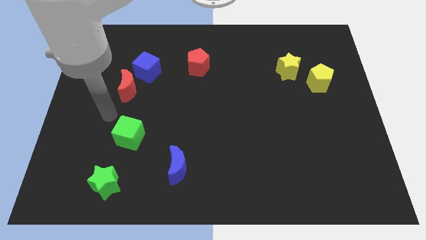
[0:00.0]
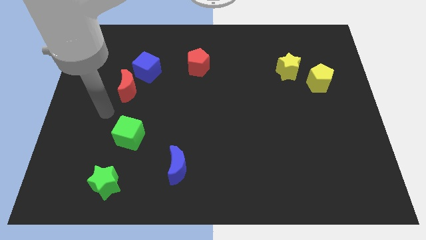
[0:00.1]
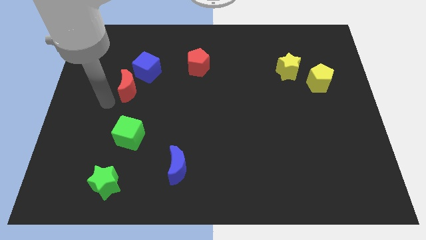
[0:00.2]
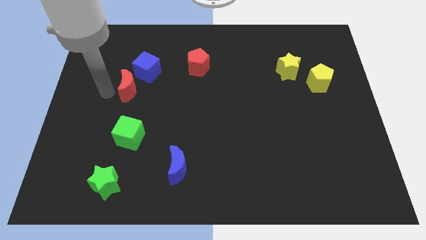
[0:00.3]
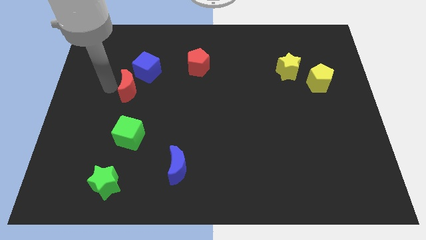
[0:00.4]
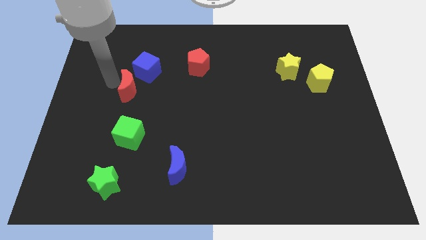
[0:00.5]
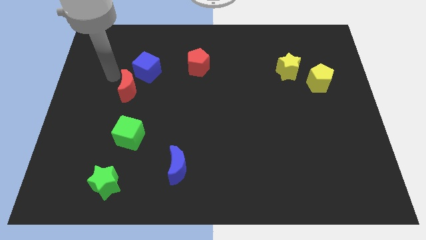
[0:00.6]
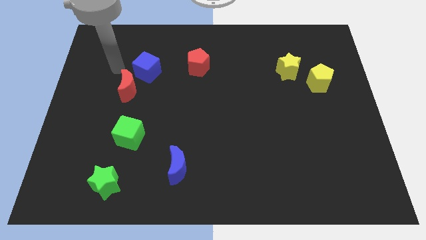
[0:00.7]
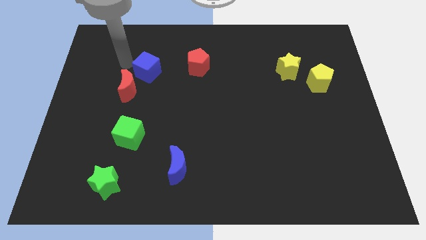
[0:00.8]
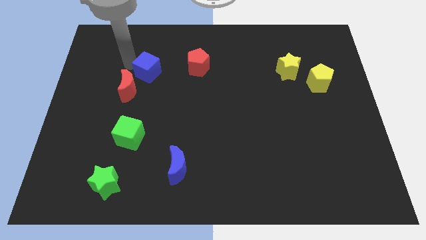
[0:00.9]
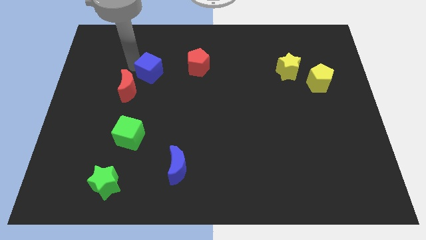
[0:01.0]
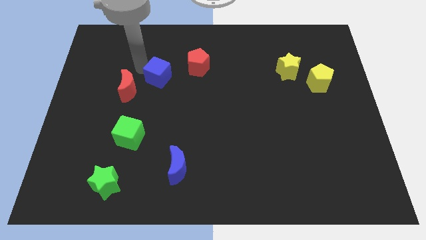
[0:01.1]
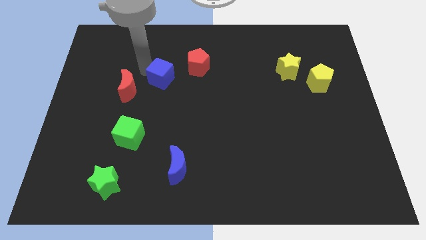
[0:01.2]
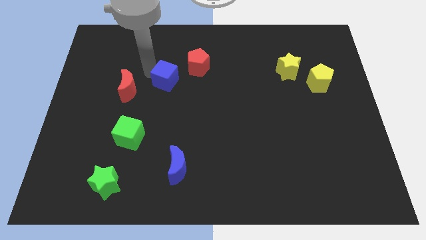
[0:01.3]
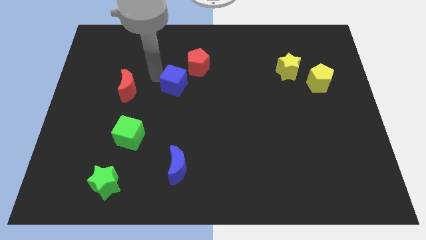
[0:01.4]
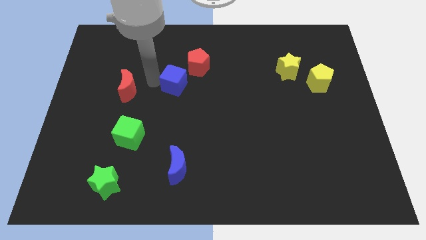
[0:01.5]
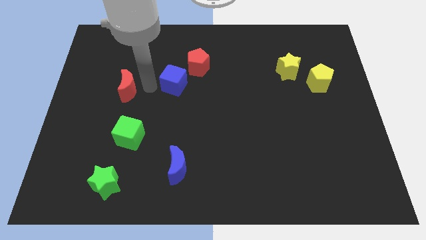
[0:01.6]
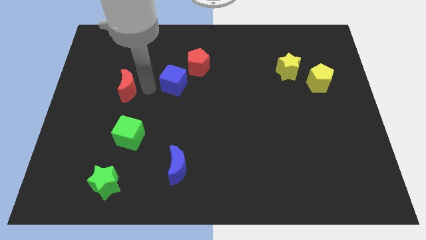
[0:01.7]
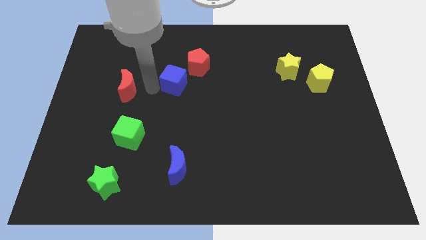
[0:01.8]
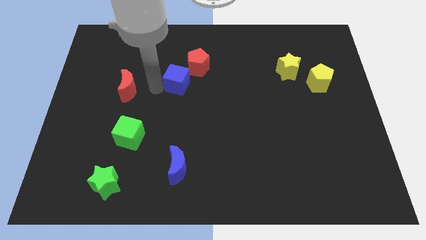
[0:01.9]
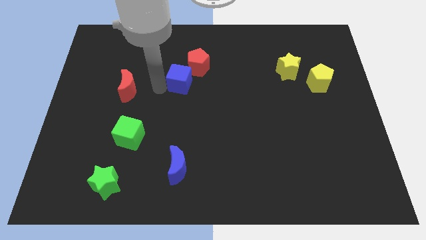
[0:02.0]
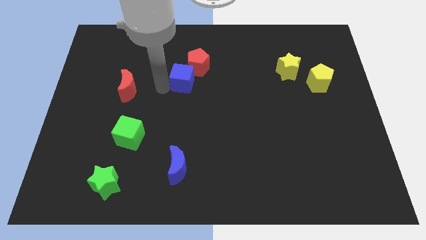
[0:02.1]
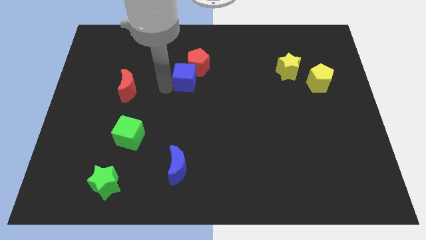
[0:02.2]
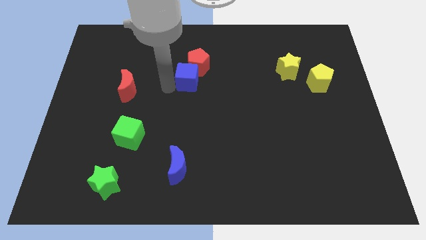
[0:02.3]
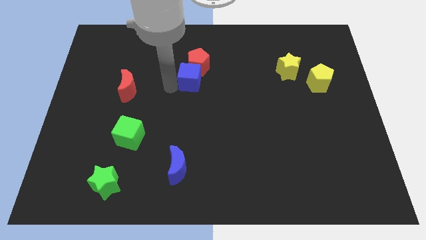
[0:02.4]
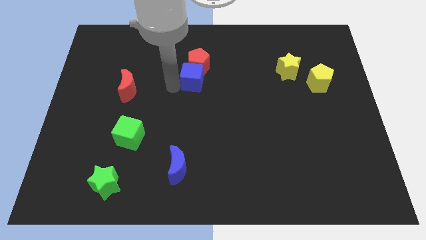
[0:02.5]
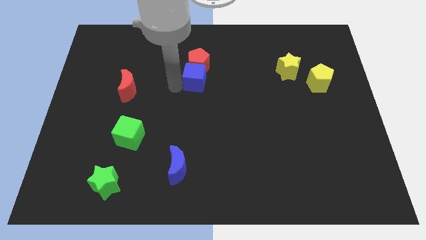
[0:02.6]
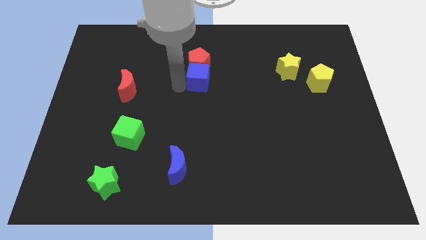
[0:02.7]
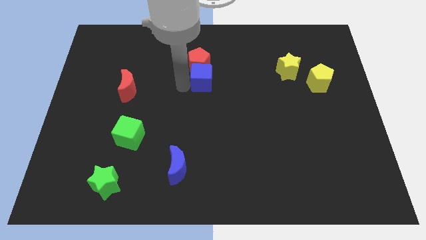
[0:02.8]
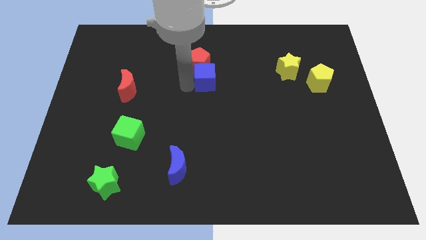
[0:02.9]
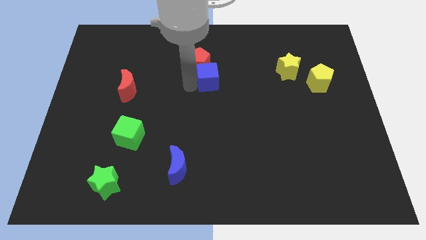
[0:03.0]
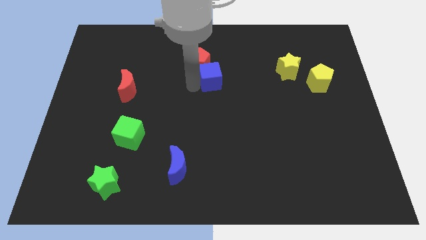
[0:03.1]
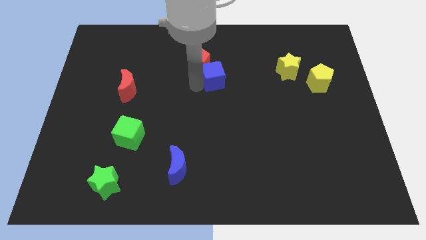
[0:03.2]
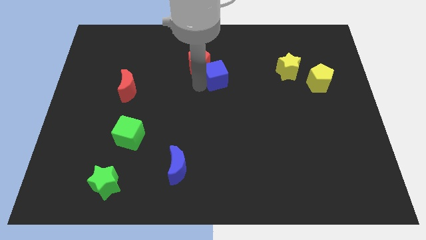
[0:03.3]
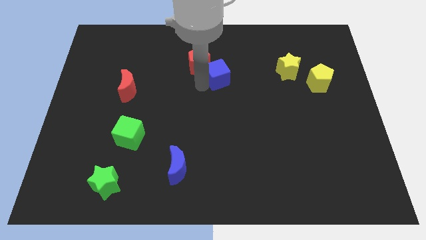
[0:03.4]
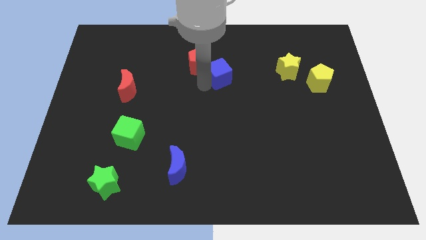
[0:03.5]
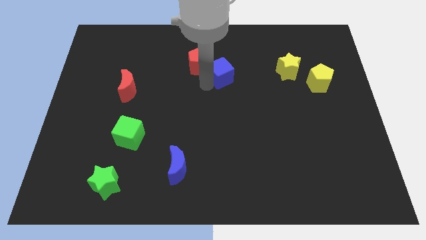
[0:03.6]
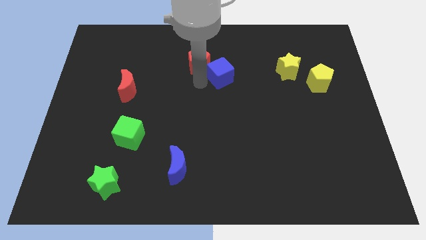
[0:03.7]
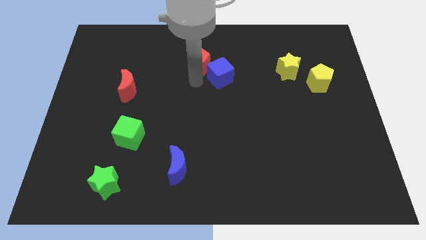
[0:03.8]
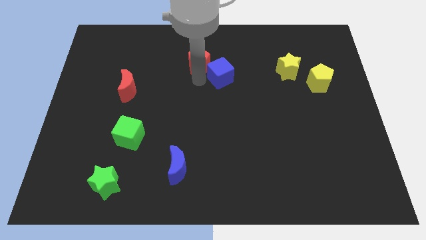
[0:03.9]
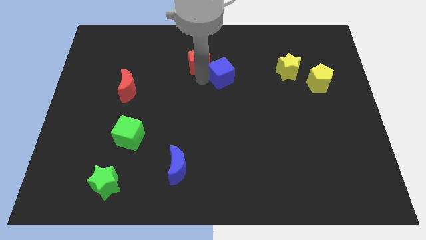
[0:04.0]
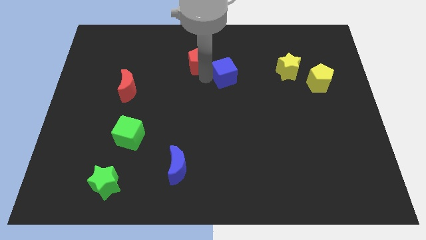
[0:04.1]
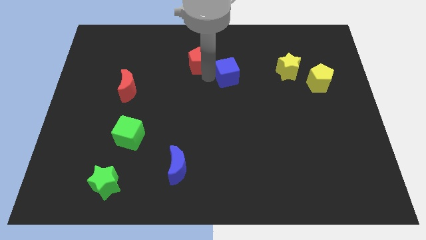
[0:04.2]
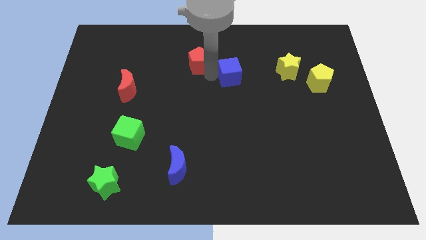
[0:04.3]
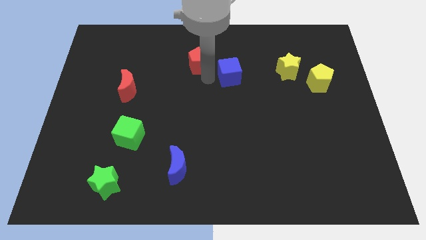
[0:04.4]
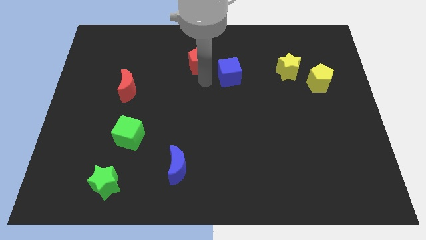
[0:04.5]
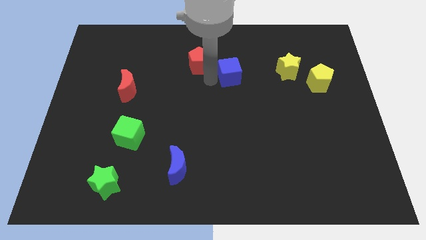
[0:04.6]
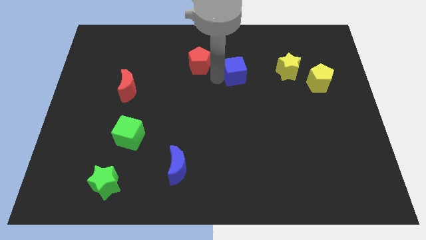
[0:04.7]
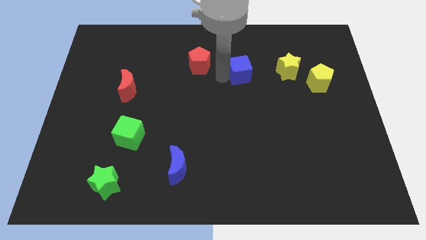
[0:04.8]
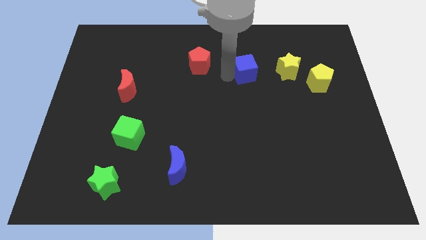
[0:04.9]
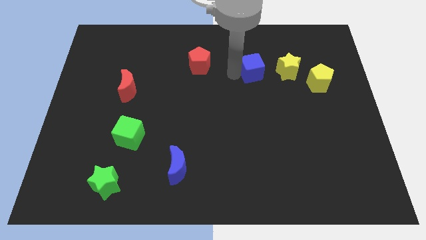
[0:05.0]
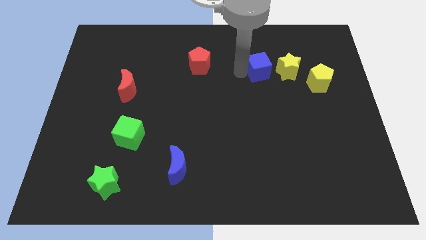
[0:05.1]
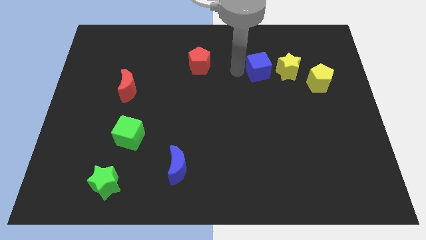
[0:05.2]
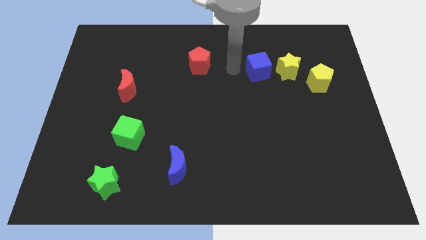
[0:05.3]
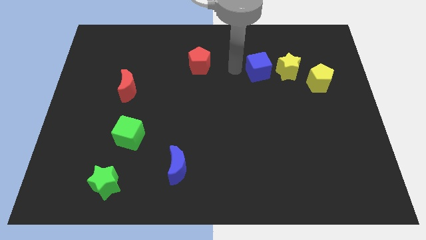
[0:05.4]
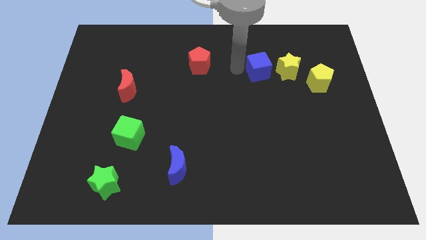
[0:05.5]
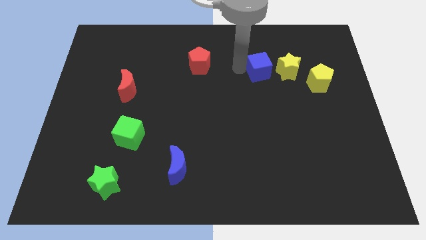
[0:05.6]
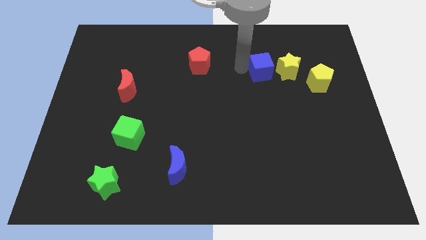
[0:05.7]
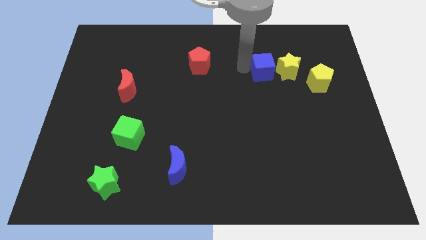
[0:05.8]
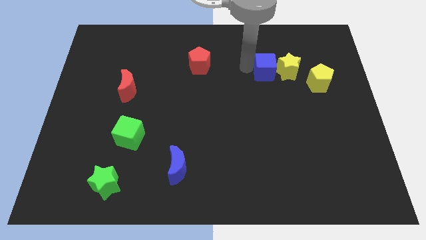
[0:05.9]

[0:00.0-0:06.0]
move the blue cube towards the yellow star
